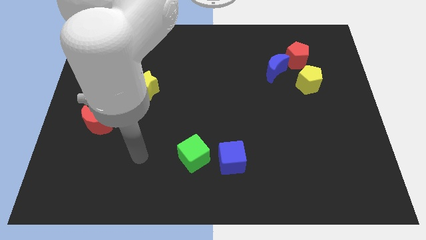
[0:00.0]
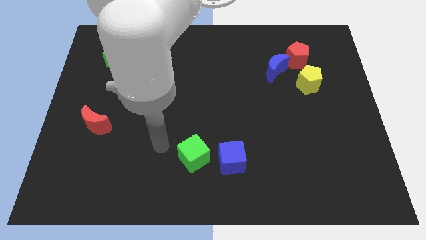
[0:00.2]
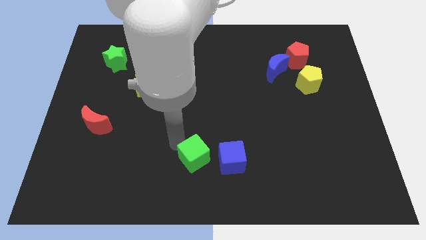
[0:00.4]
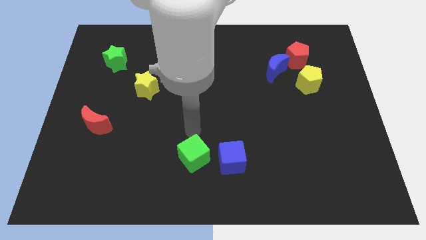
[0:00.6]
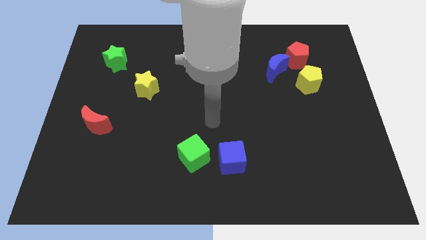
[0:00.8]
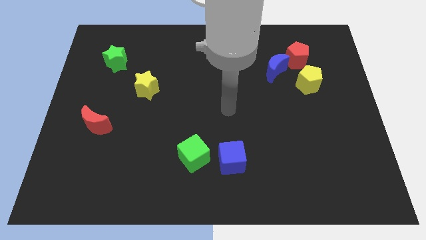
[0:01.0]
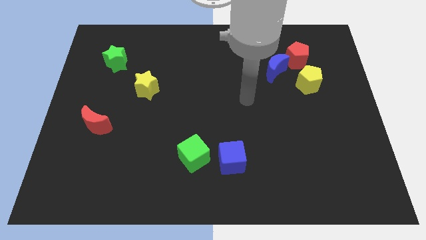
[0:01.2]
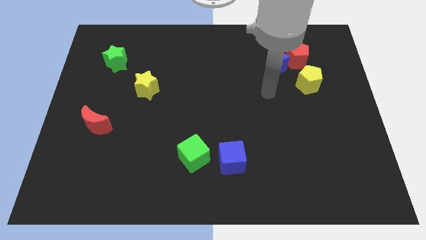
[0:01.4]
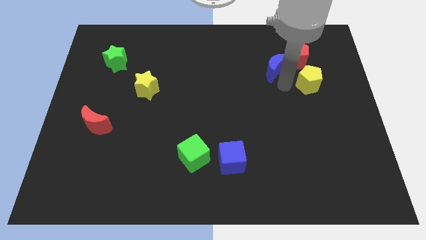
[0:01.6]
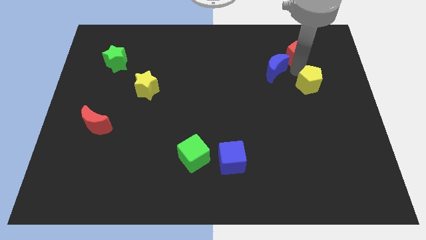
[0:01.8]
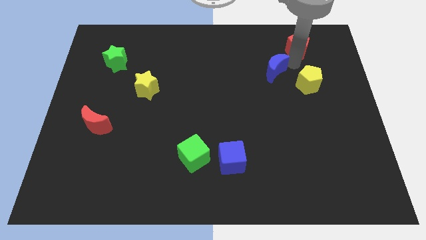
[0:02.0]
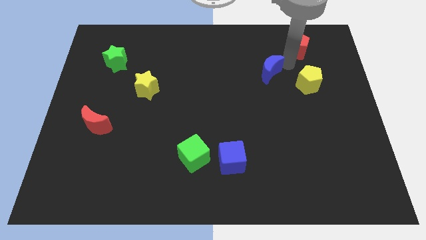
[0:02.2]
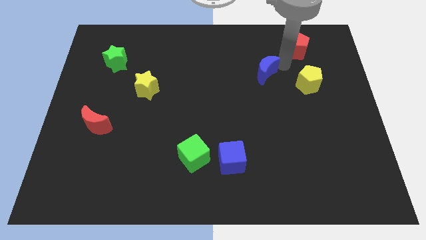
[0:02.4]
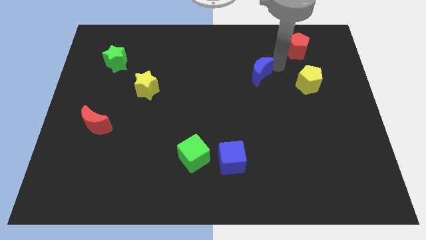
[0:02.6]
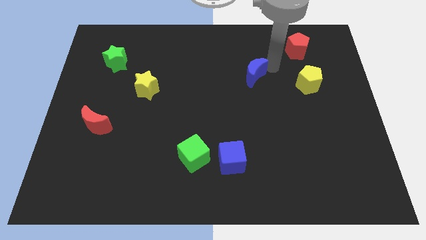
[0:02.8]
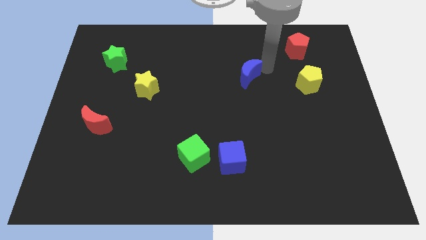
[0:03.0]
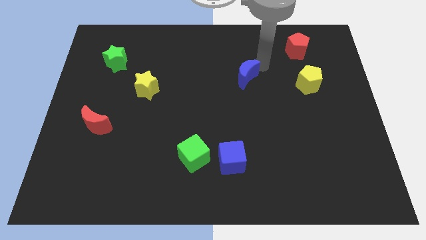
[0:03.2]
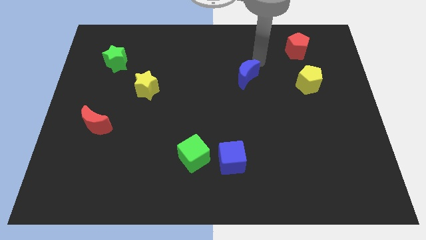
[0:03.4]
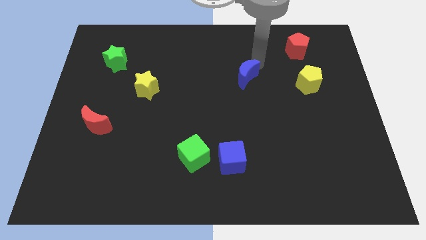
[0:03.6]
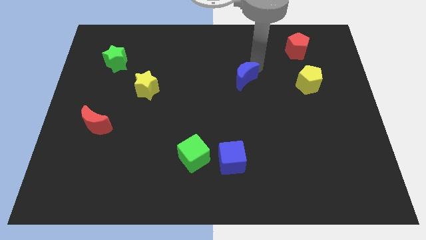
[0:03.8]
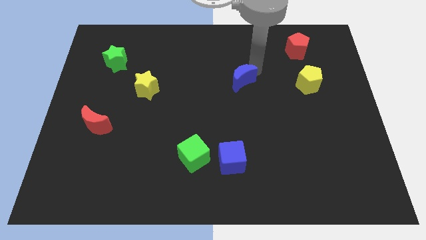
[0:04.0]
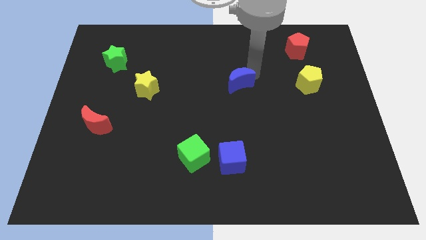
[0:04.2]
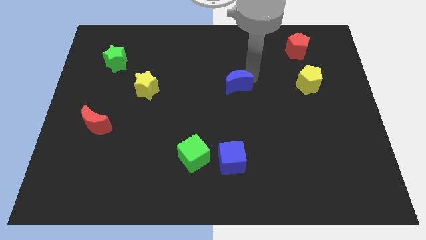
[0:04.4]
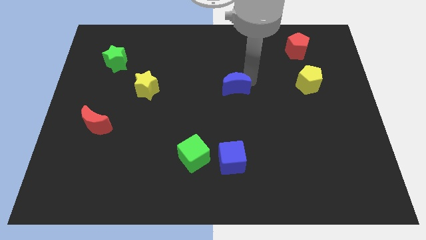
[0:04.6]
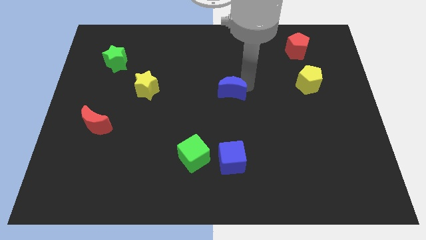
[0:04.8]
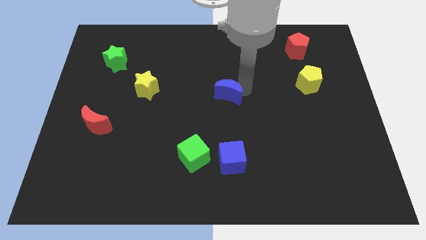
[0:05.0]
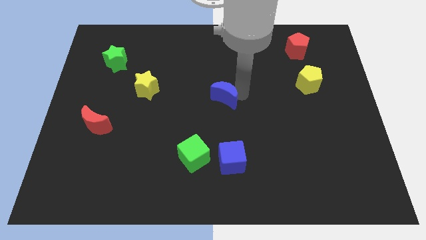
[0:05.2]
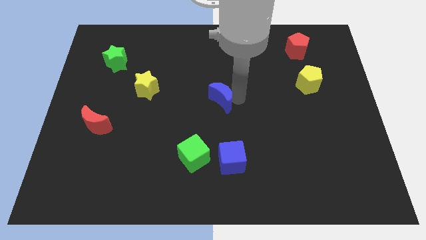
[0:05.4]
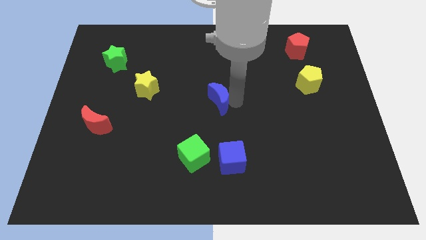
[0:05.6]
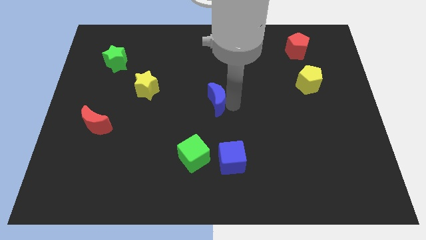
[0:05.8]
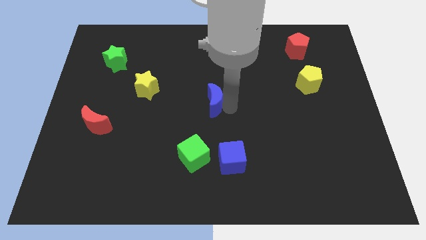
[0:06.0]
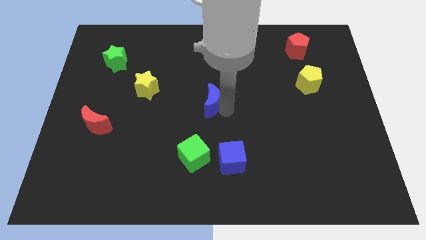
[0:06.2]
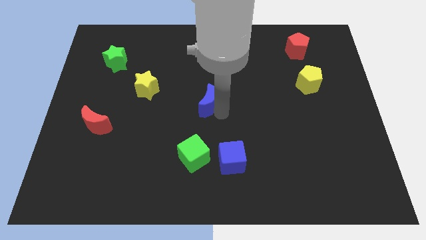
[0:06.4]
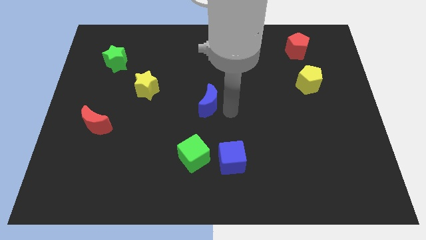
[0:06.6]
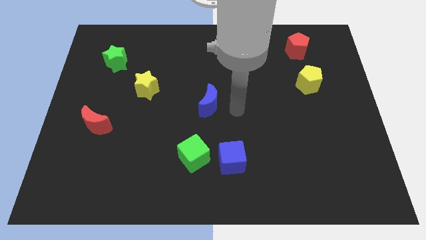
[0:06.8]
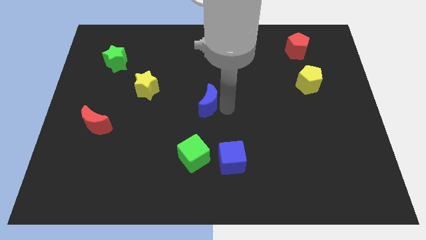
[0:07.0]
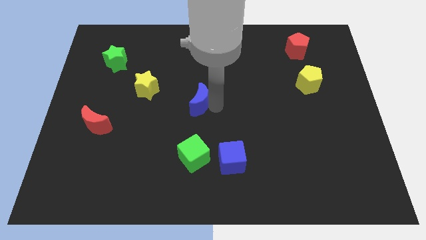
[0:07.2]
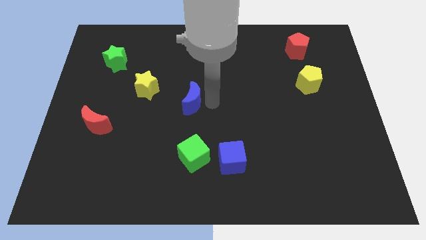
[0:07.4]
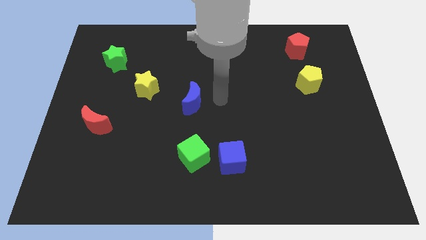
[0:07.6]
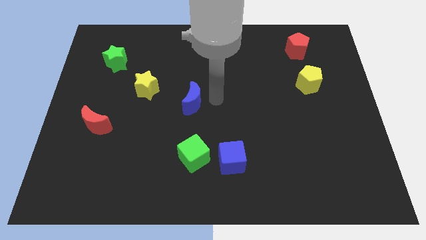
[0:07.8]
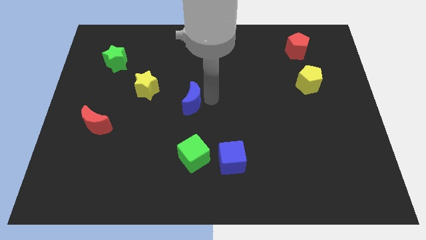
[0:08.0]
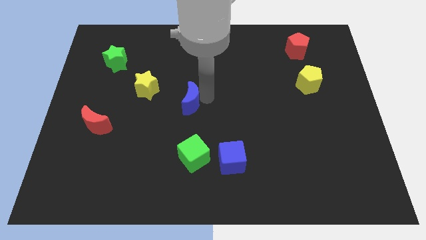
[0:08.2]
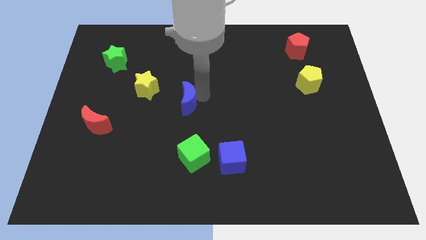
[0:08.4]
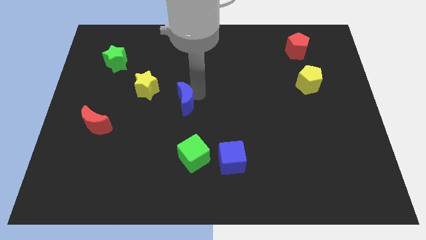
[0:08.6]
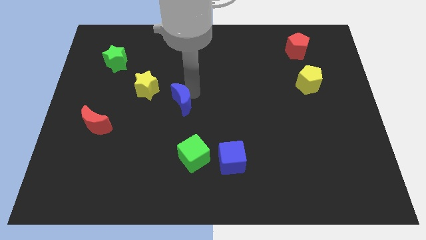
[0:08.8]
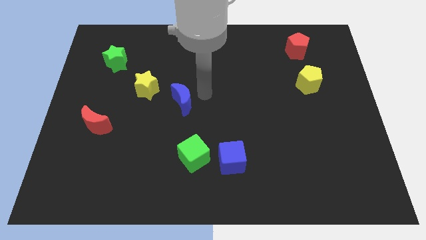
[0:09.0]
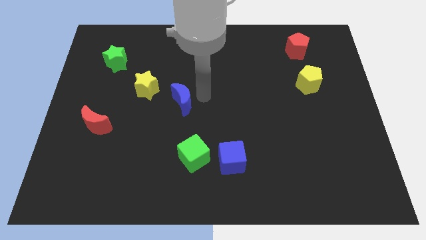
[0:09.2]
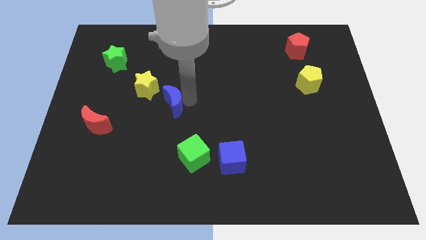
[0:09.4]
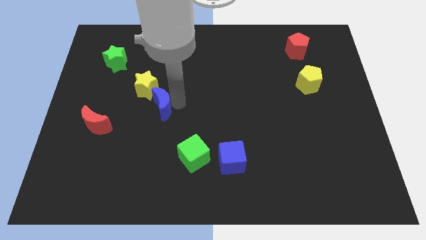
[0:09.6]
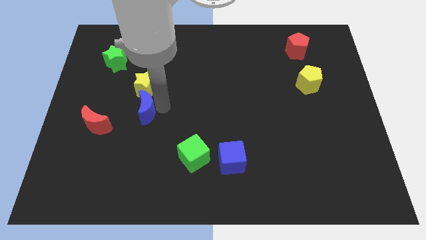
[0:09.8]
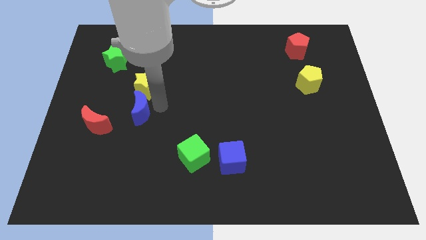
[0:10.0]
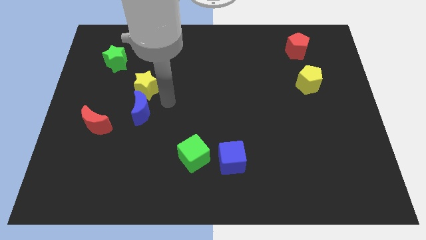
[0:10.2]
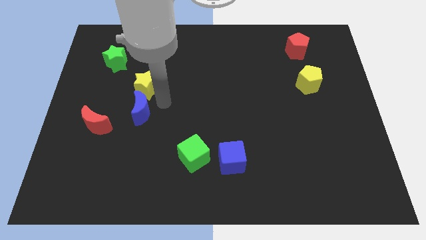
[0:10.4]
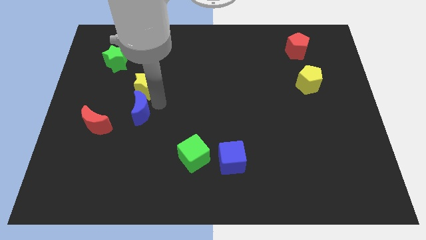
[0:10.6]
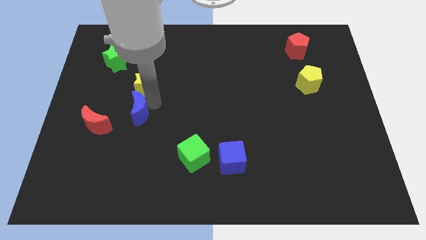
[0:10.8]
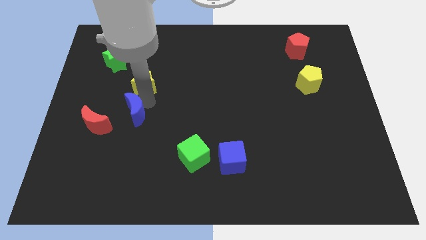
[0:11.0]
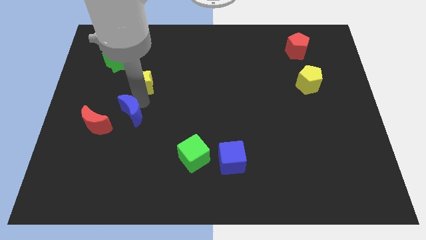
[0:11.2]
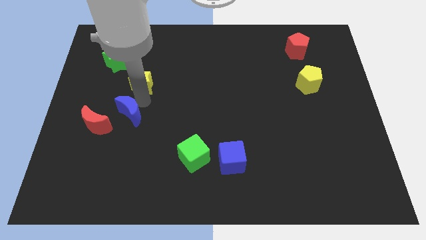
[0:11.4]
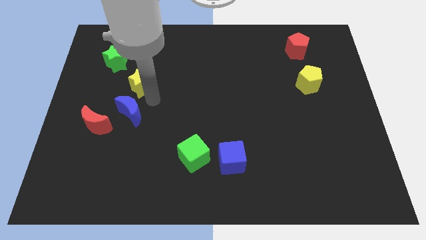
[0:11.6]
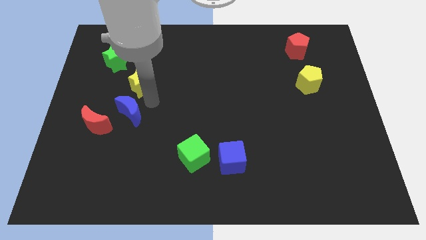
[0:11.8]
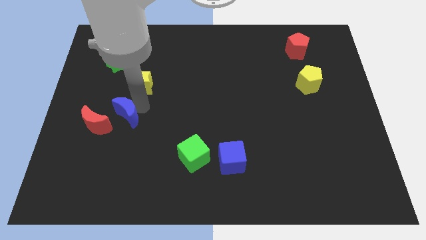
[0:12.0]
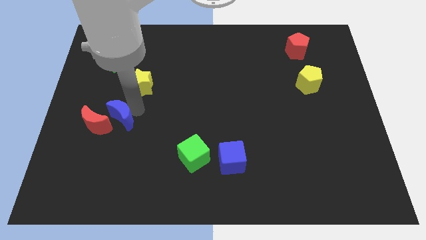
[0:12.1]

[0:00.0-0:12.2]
move the blue moon next to the red moon

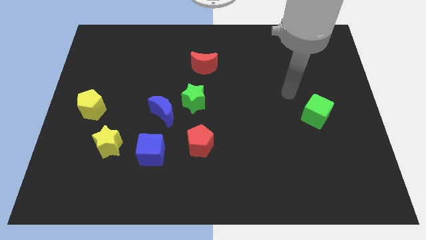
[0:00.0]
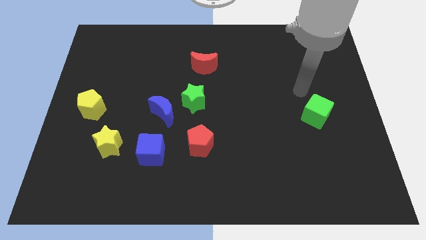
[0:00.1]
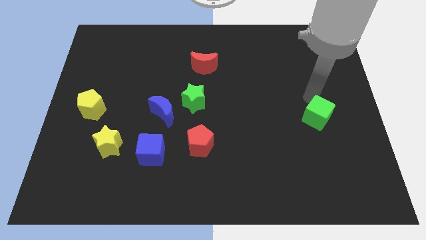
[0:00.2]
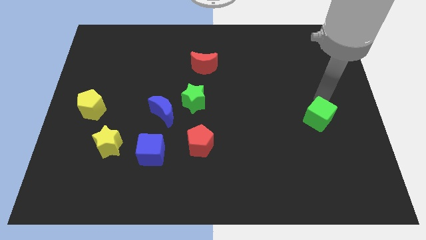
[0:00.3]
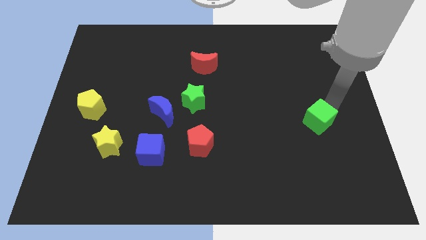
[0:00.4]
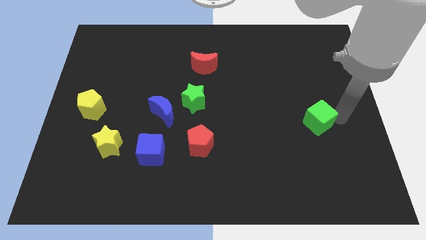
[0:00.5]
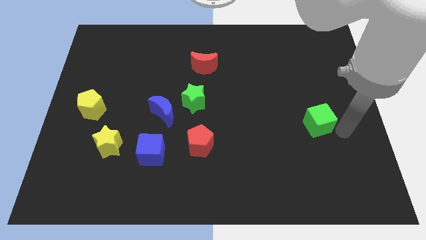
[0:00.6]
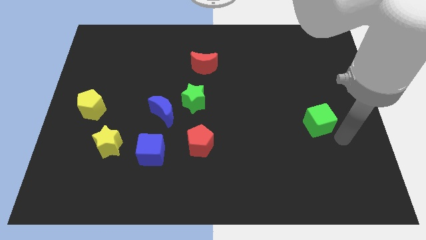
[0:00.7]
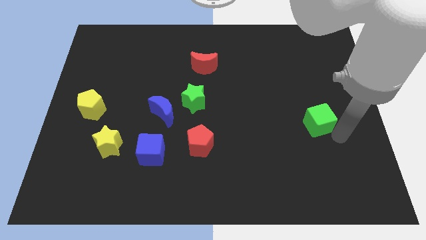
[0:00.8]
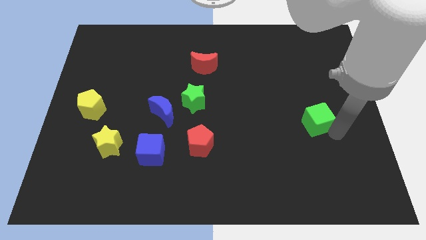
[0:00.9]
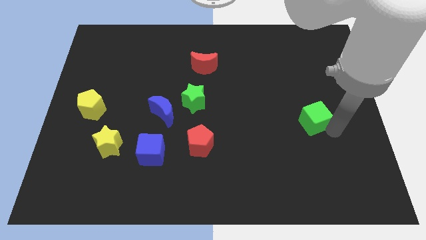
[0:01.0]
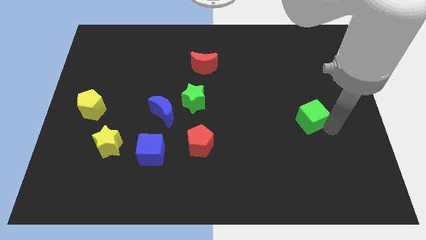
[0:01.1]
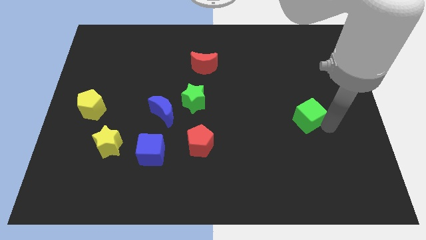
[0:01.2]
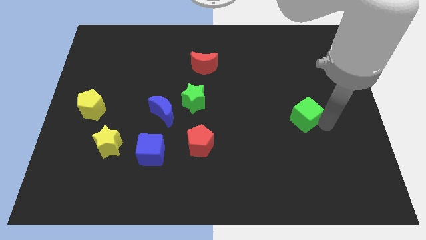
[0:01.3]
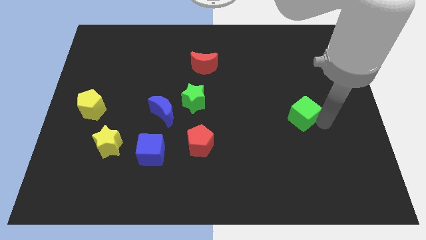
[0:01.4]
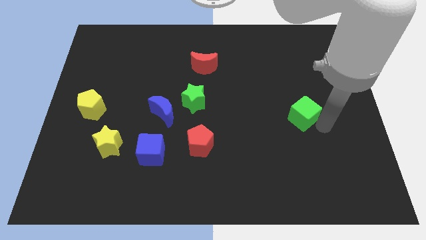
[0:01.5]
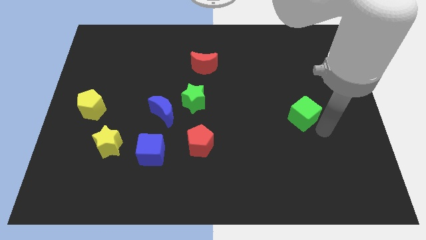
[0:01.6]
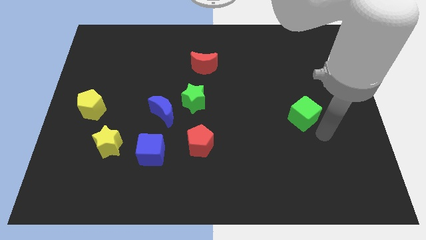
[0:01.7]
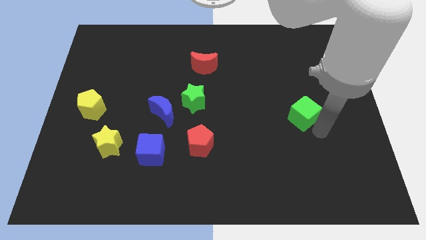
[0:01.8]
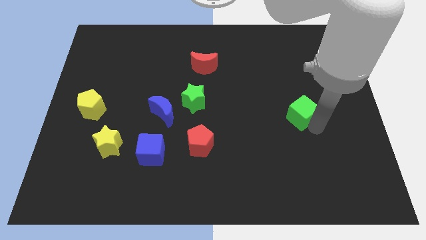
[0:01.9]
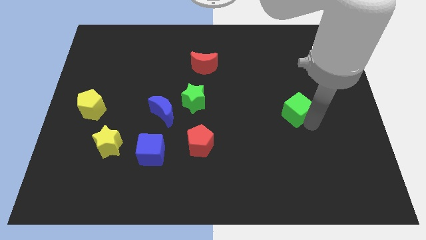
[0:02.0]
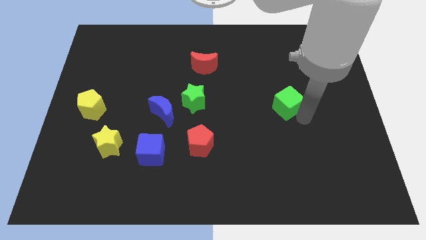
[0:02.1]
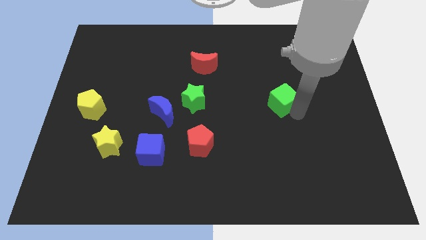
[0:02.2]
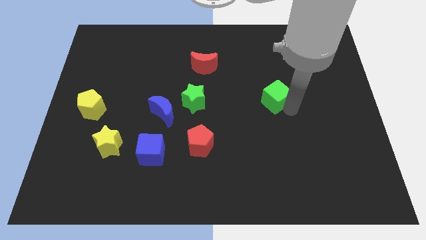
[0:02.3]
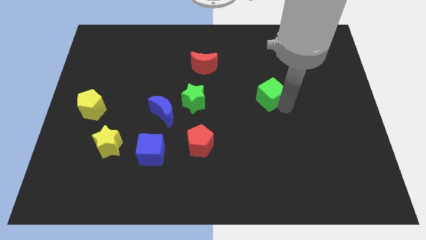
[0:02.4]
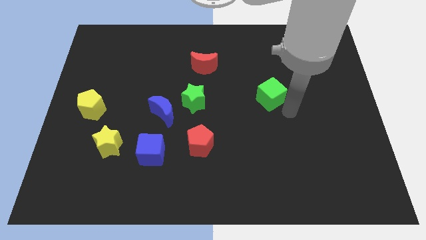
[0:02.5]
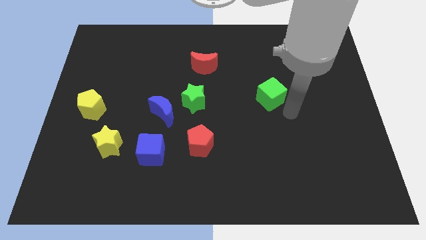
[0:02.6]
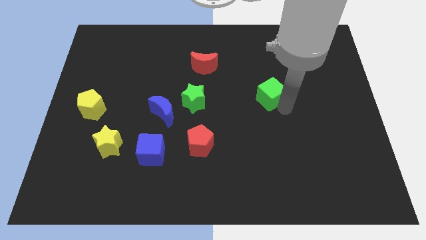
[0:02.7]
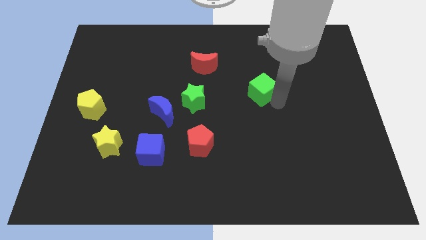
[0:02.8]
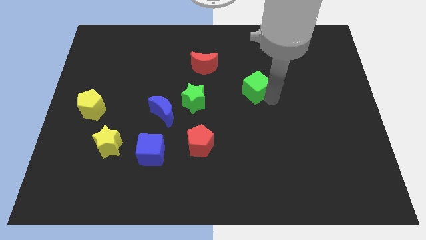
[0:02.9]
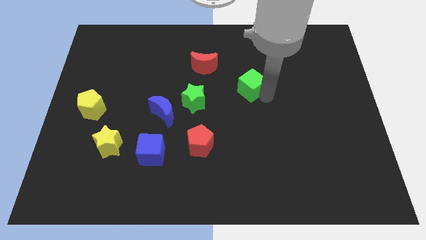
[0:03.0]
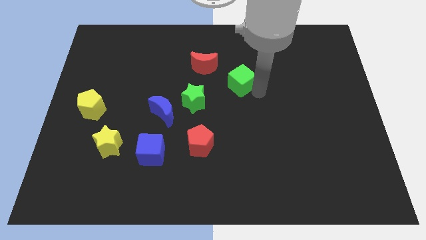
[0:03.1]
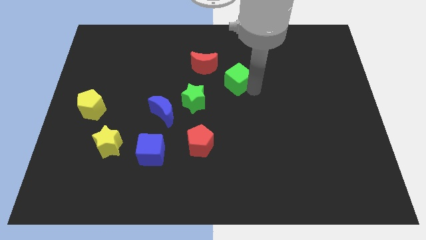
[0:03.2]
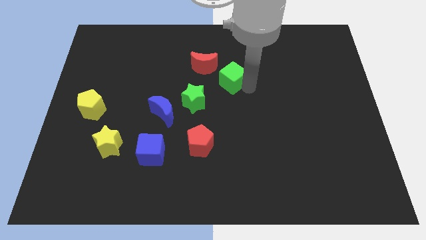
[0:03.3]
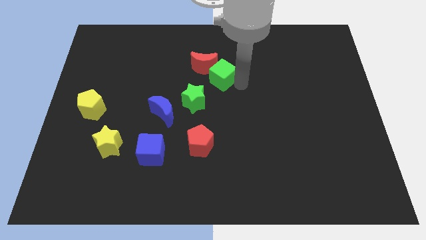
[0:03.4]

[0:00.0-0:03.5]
move the green cube to the red moon
